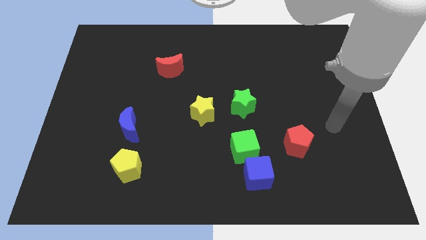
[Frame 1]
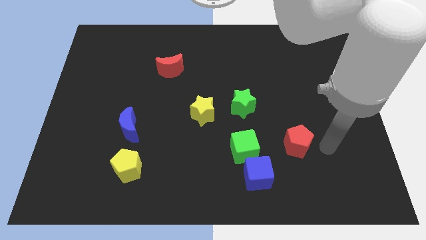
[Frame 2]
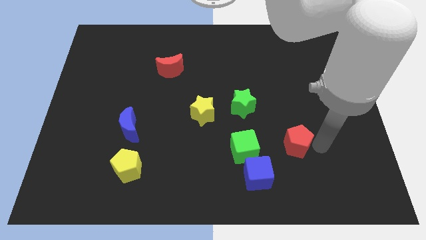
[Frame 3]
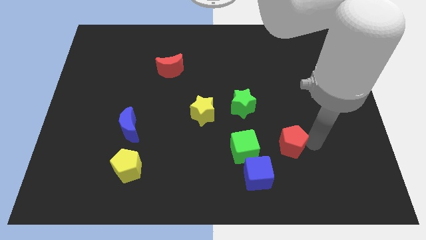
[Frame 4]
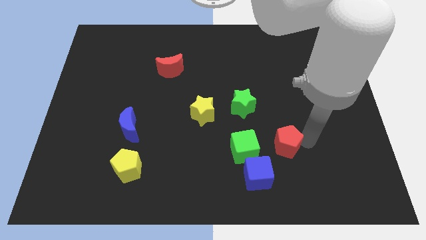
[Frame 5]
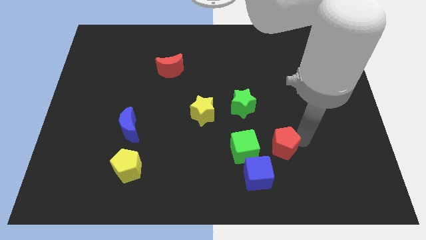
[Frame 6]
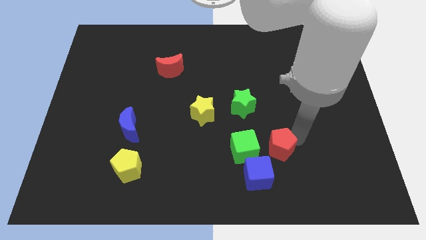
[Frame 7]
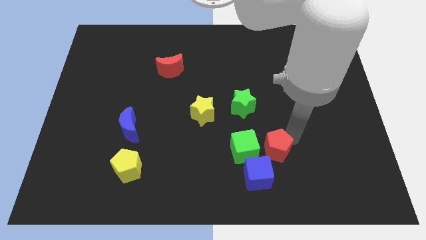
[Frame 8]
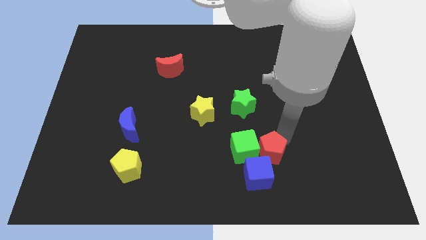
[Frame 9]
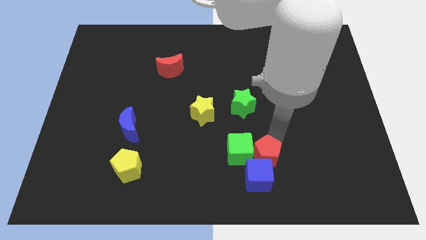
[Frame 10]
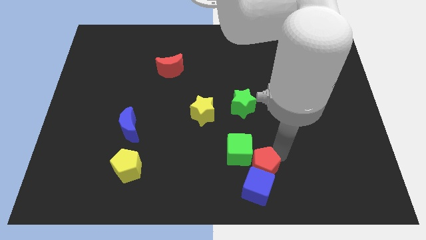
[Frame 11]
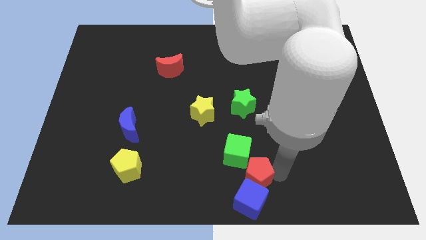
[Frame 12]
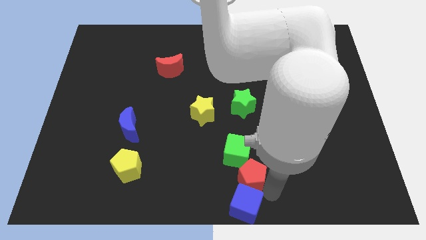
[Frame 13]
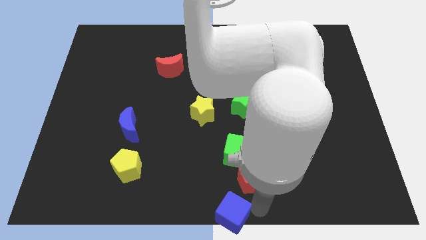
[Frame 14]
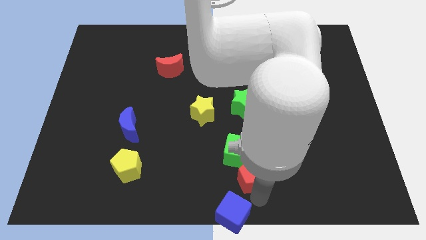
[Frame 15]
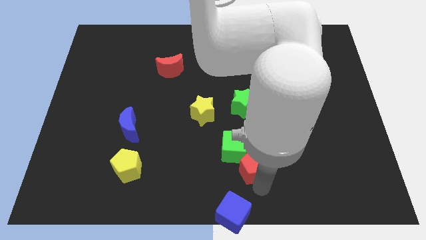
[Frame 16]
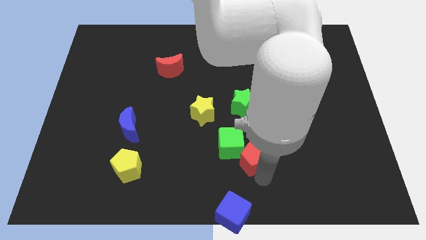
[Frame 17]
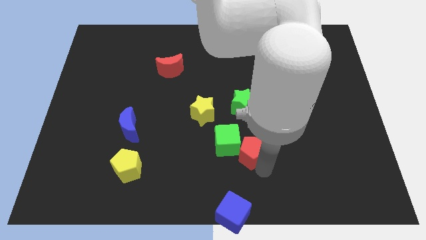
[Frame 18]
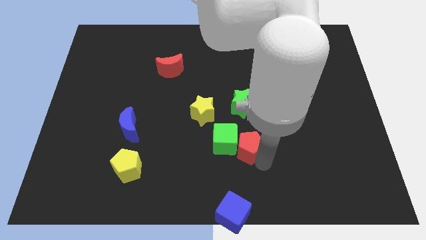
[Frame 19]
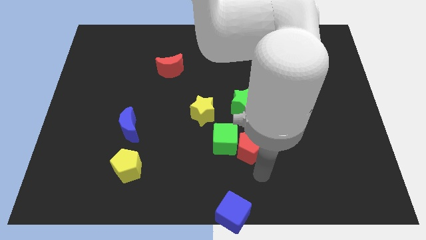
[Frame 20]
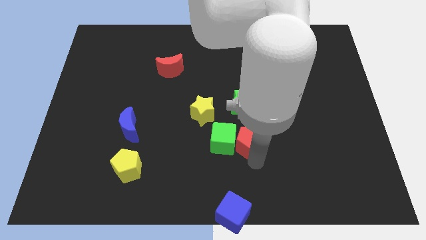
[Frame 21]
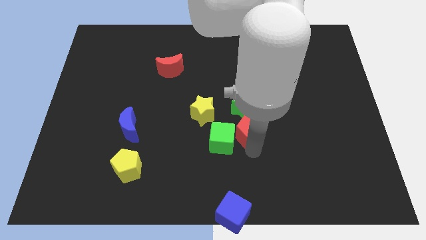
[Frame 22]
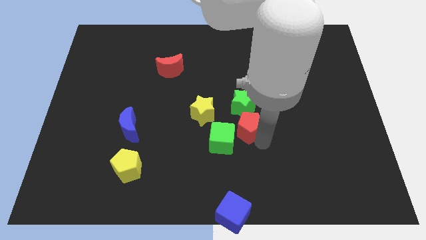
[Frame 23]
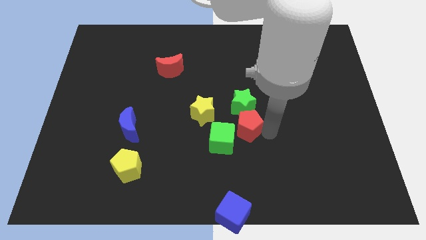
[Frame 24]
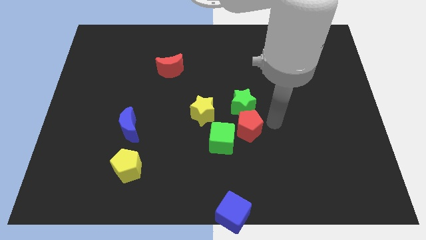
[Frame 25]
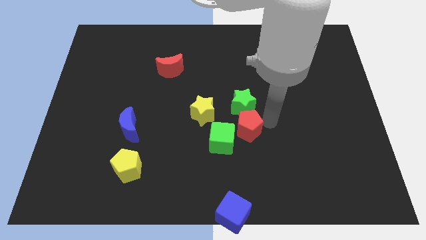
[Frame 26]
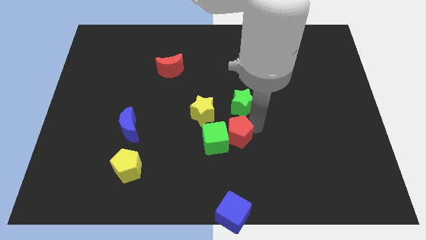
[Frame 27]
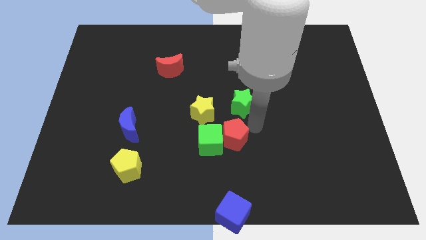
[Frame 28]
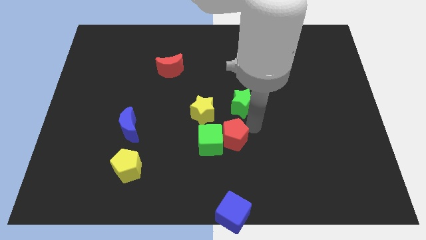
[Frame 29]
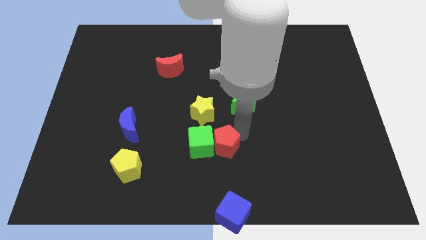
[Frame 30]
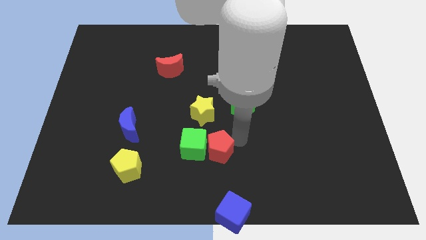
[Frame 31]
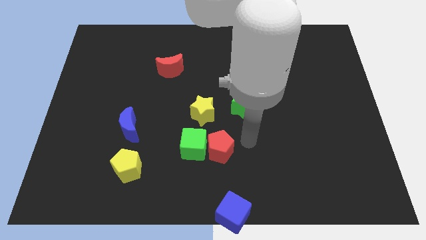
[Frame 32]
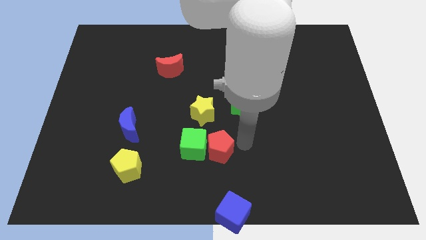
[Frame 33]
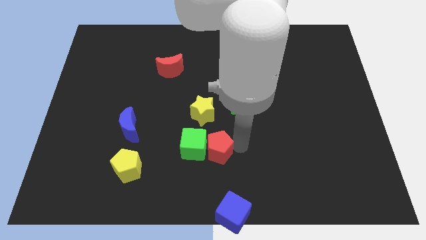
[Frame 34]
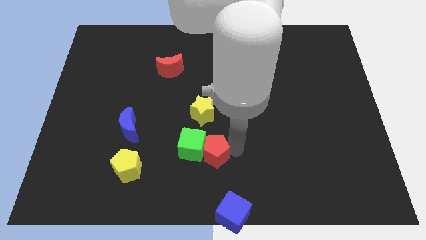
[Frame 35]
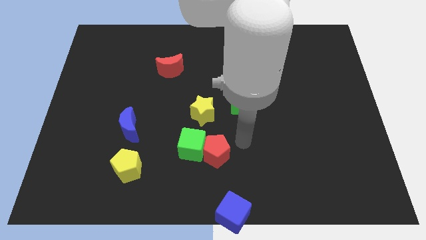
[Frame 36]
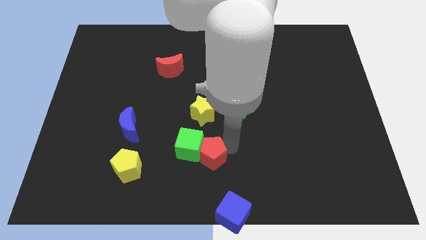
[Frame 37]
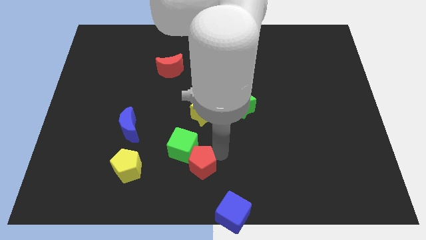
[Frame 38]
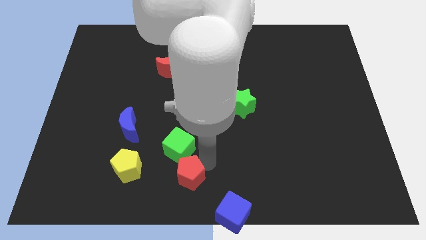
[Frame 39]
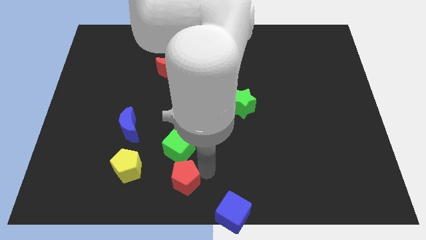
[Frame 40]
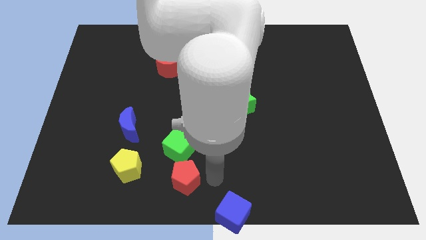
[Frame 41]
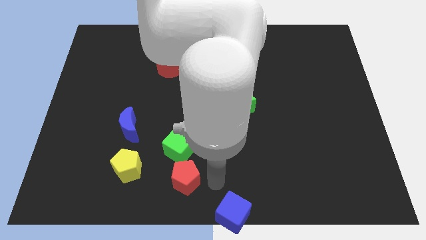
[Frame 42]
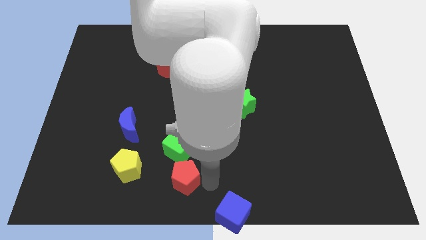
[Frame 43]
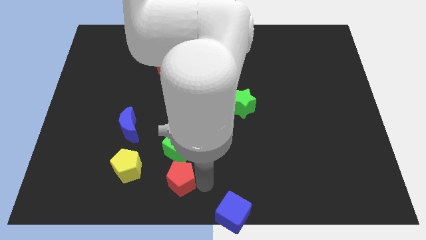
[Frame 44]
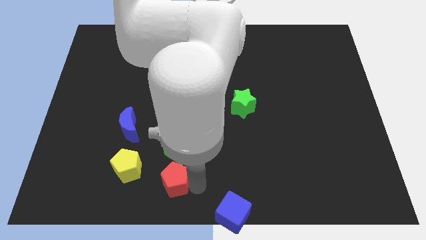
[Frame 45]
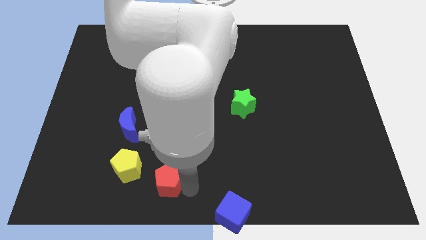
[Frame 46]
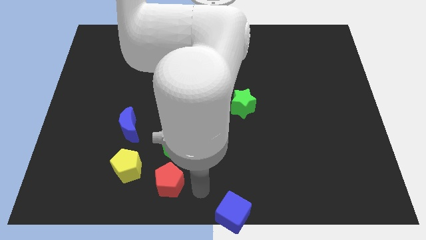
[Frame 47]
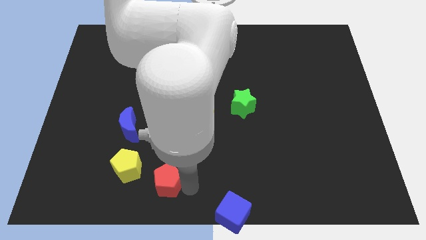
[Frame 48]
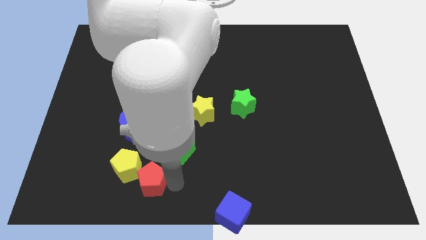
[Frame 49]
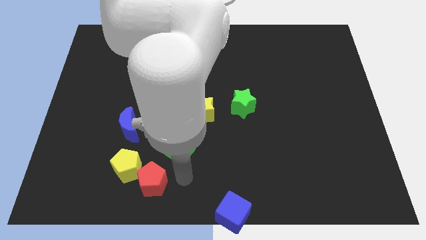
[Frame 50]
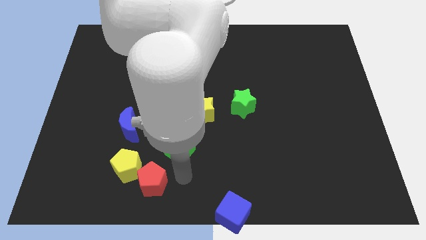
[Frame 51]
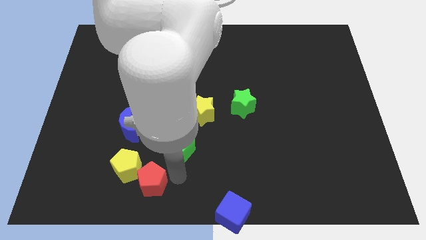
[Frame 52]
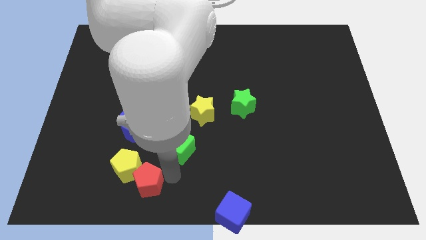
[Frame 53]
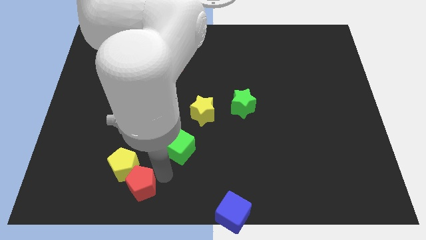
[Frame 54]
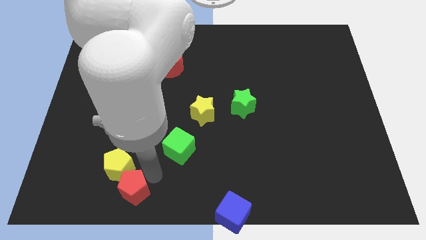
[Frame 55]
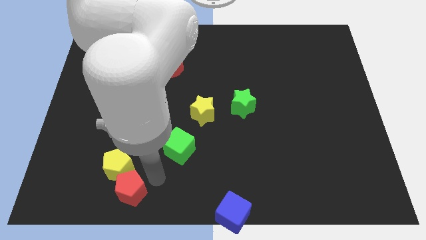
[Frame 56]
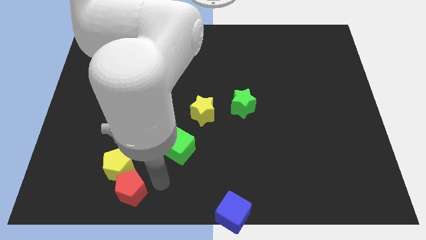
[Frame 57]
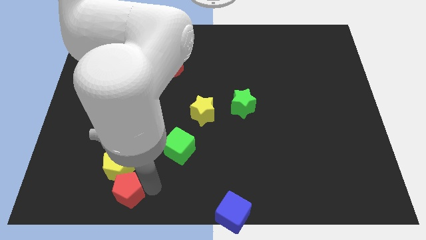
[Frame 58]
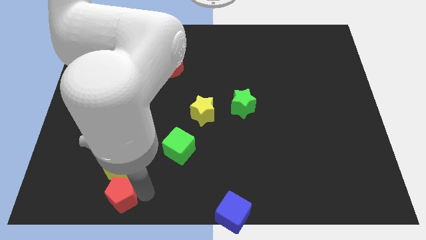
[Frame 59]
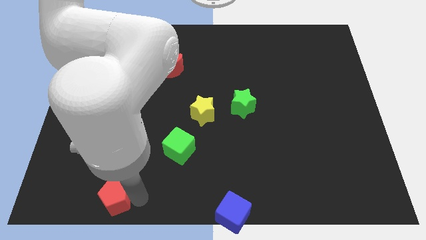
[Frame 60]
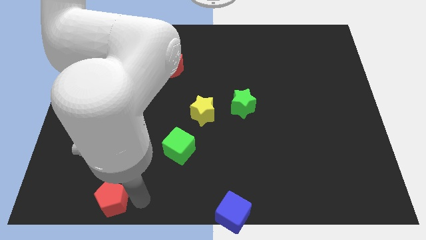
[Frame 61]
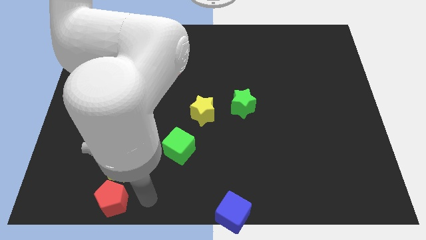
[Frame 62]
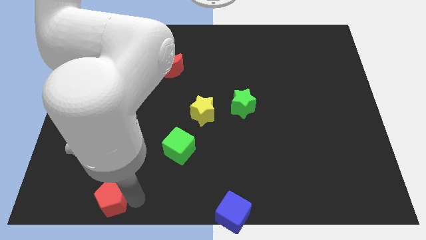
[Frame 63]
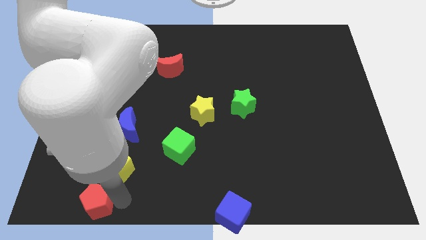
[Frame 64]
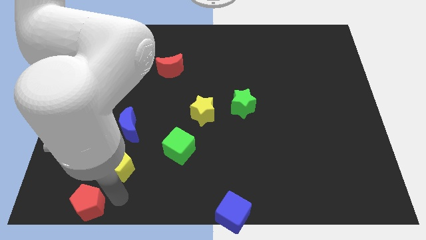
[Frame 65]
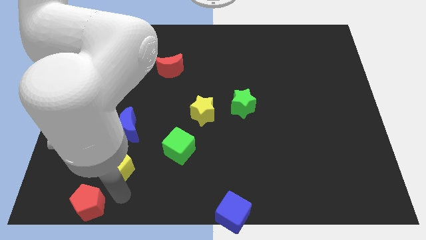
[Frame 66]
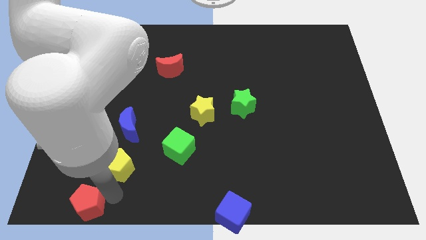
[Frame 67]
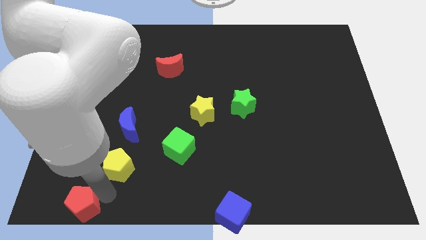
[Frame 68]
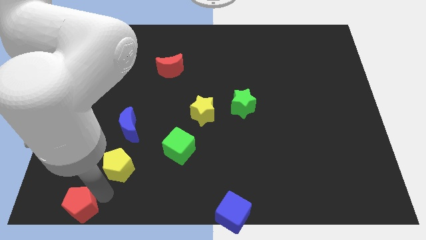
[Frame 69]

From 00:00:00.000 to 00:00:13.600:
put the red pentagon to the bottom left corner
